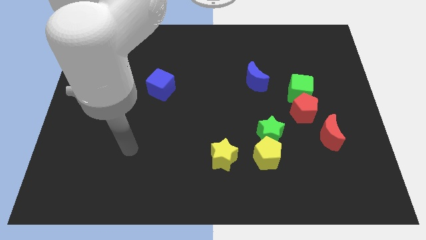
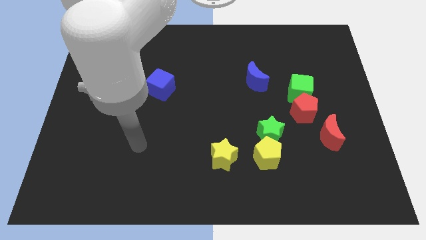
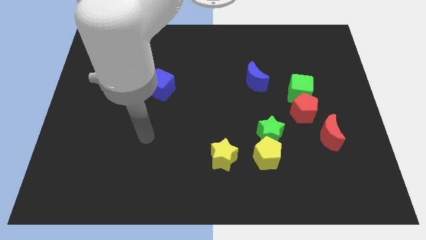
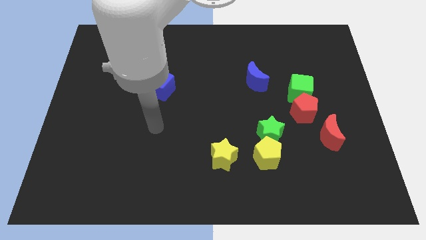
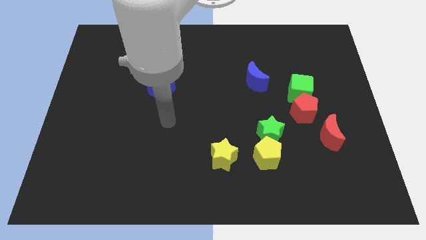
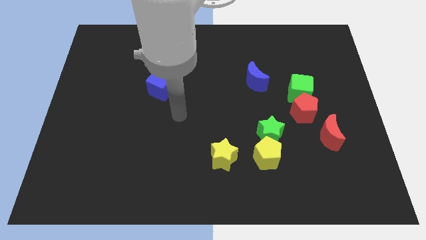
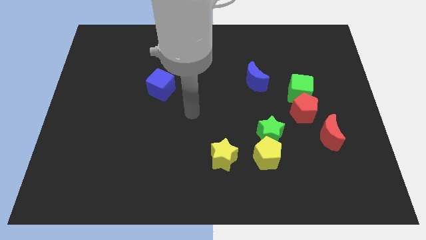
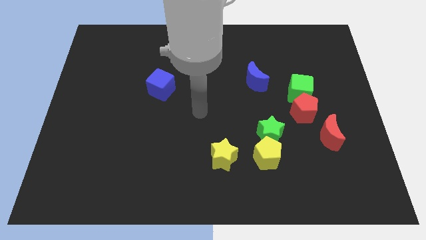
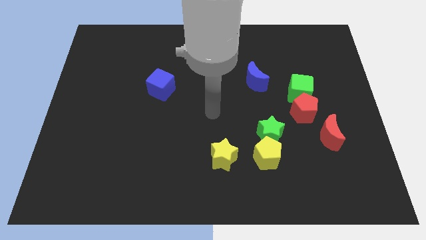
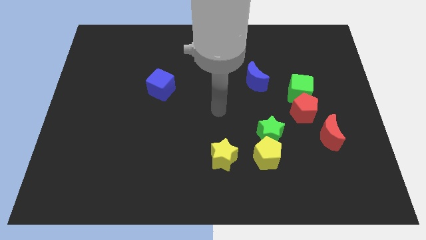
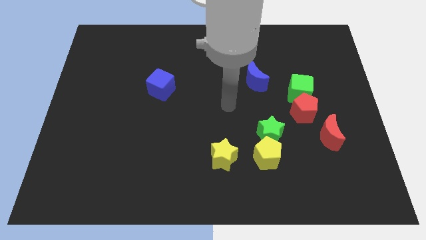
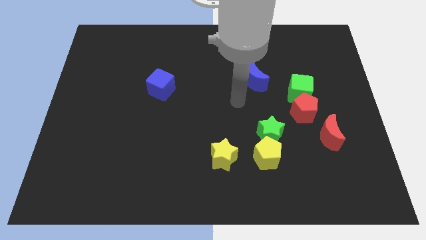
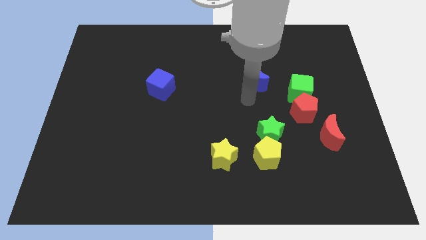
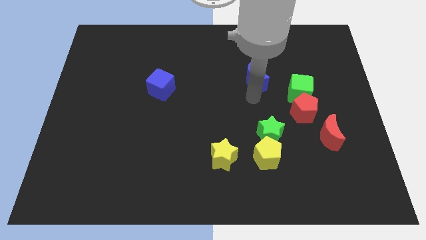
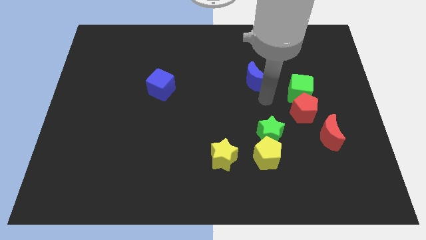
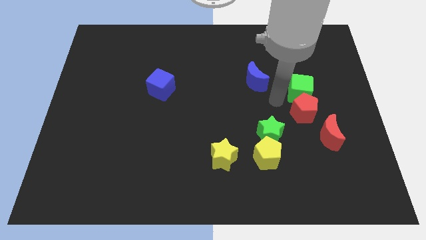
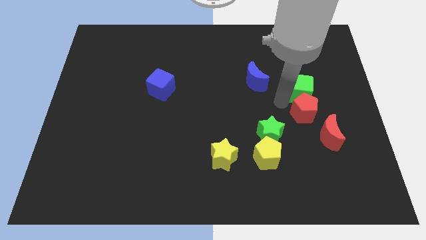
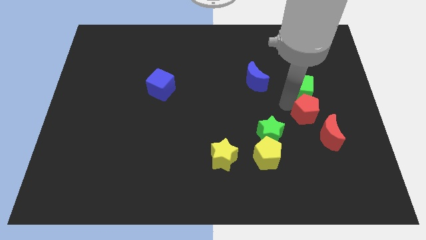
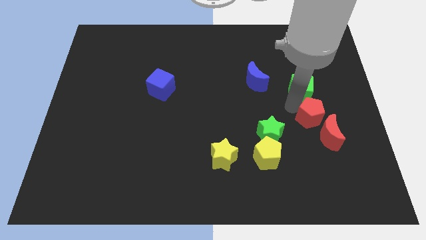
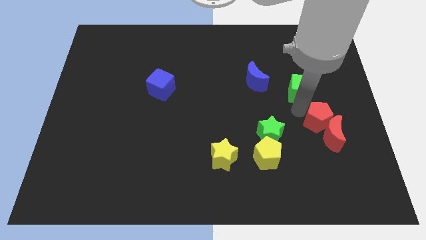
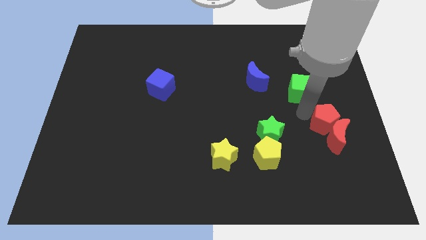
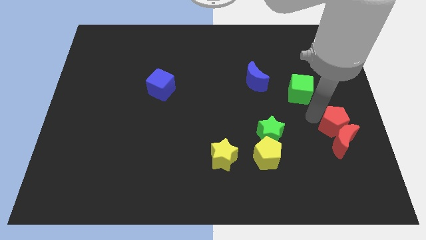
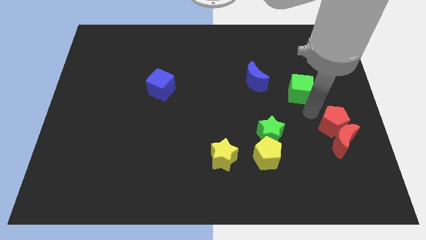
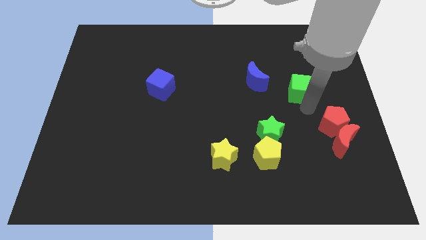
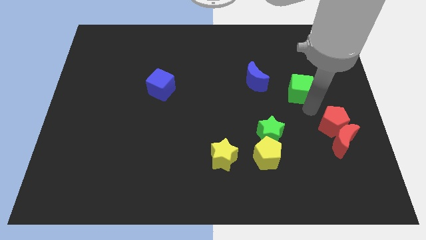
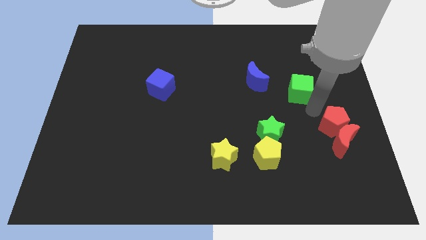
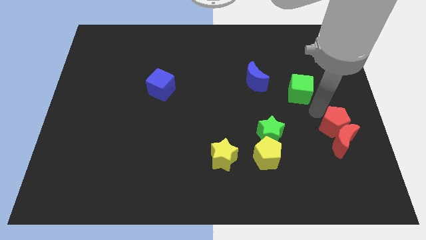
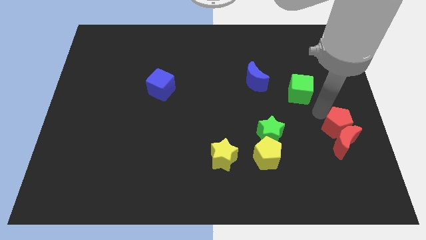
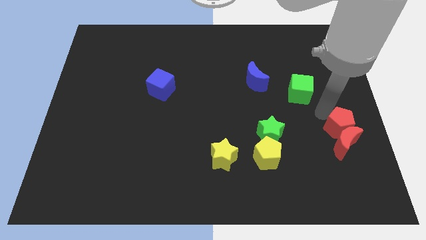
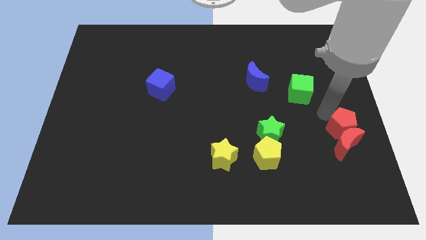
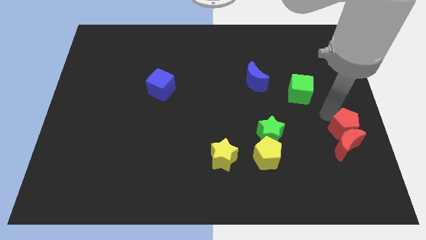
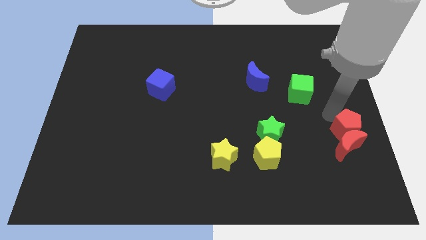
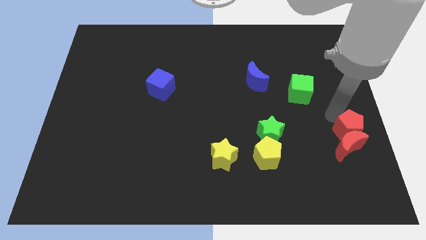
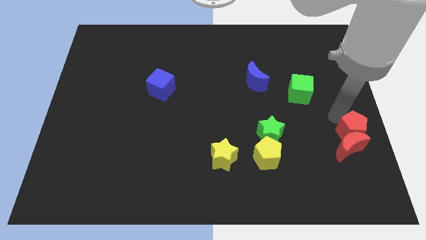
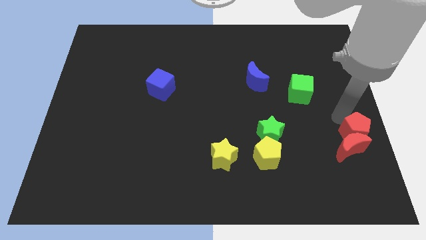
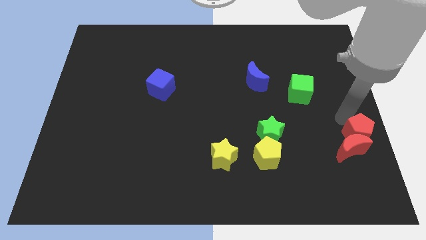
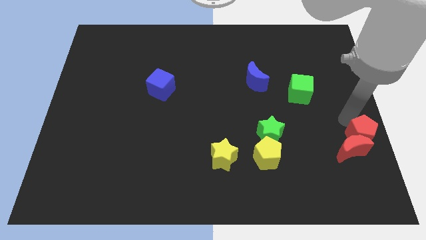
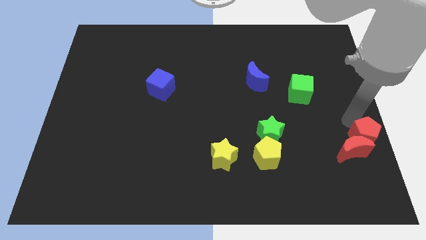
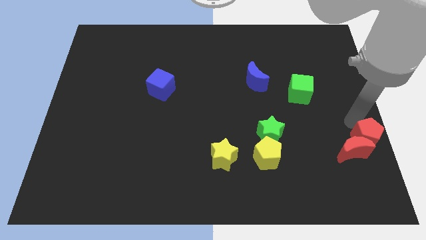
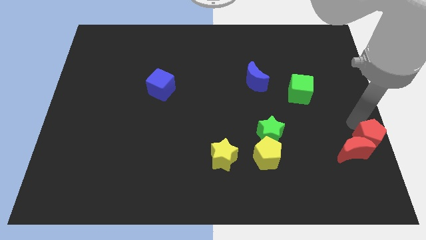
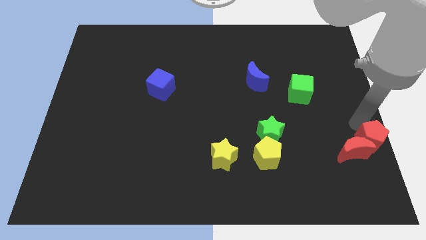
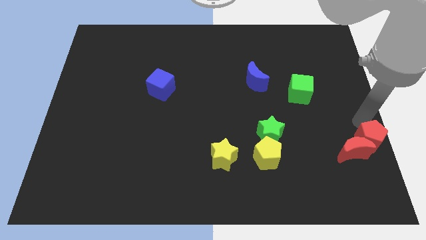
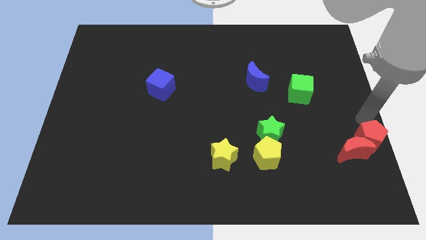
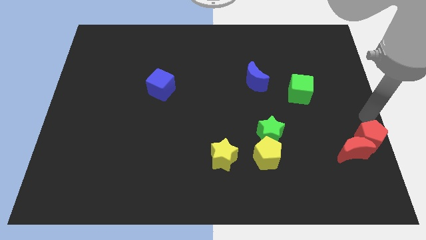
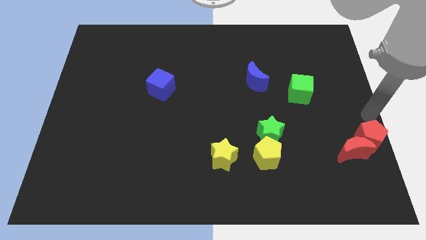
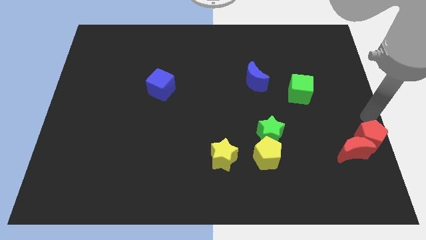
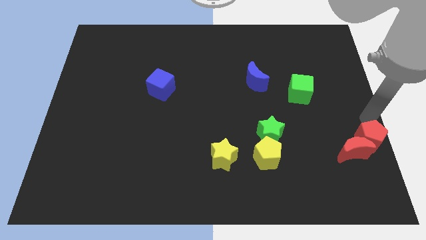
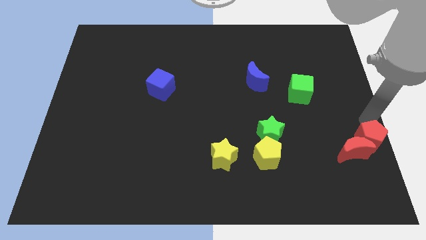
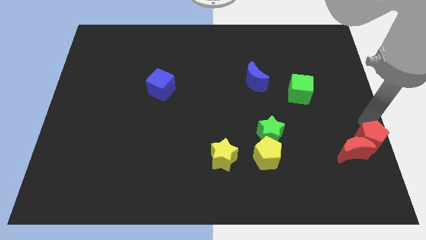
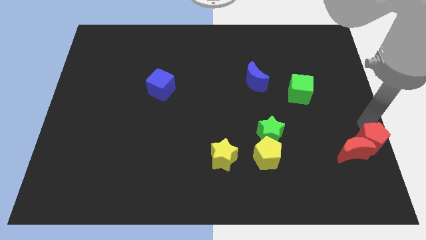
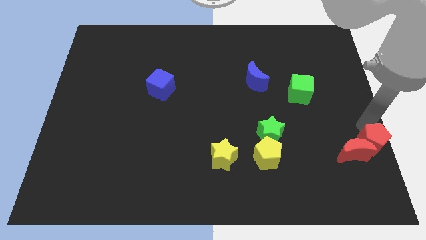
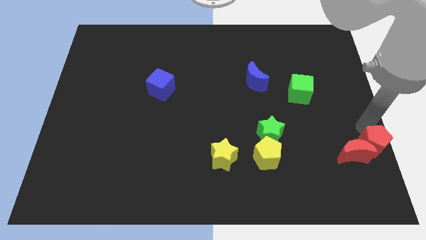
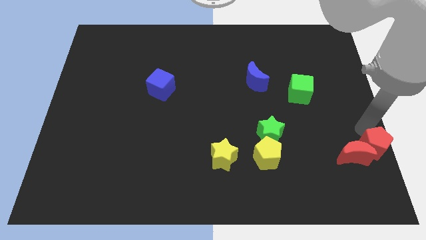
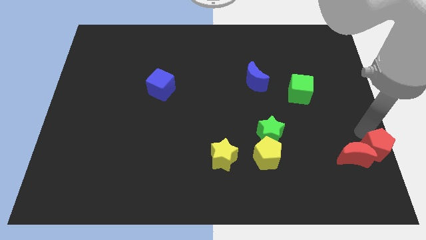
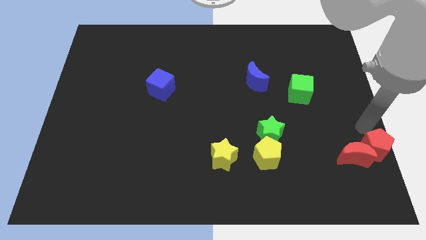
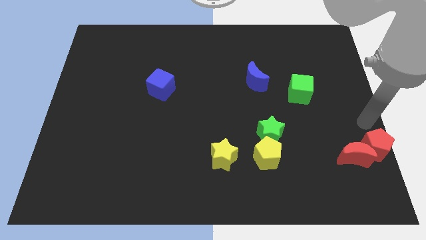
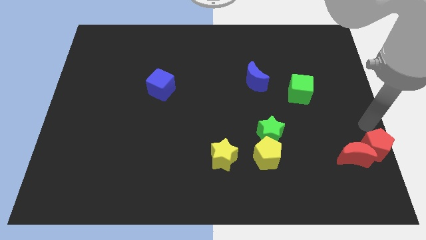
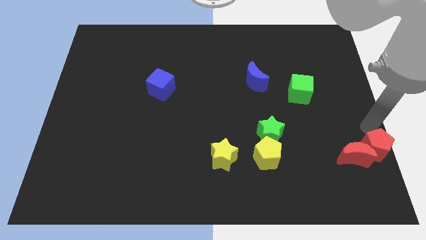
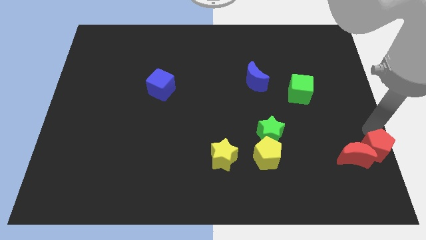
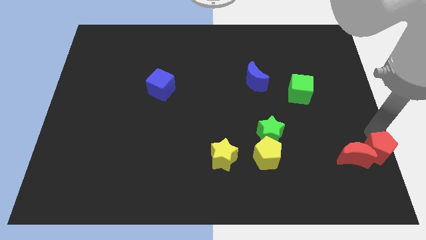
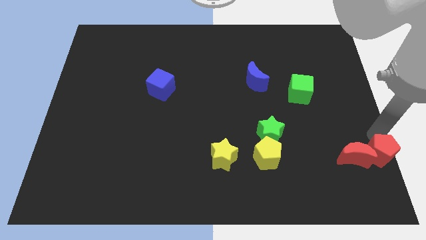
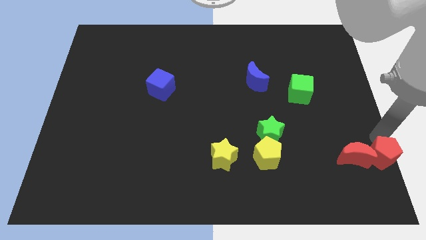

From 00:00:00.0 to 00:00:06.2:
move the red pentagon to the lower right corner
